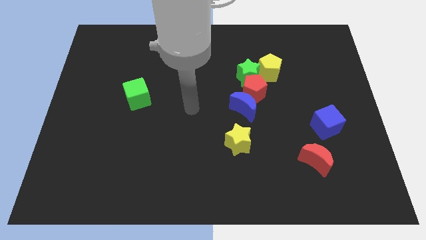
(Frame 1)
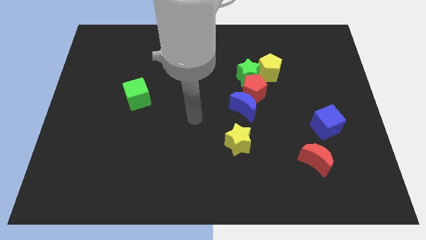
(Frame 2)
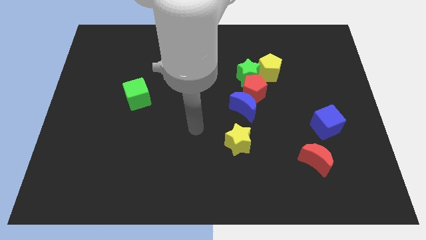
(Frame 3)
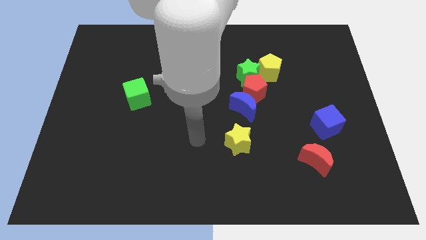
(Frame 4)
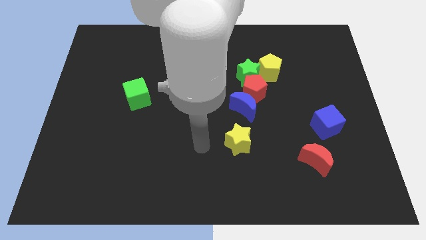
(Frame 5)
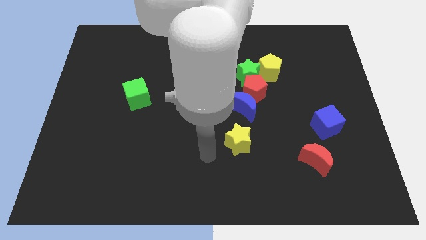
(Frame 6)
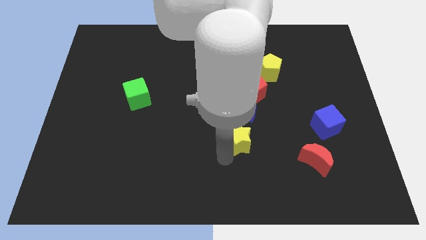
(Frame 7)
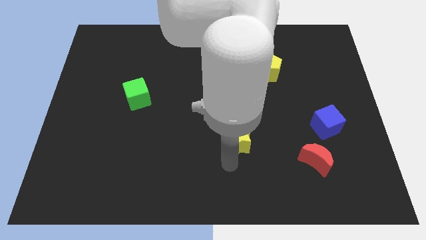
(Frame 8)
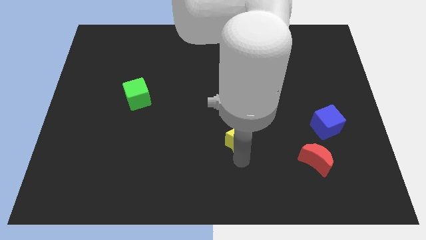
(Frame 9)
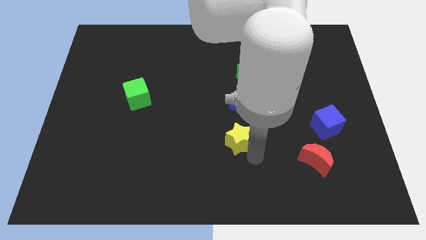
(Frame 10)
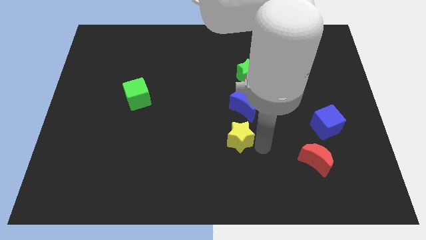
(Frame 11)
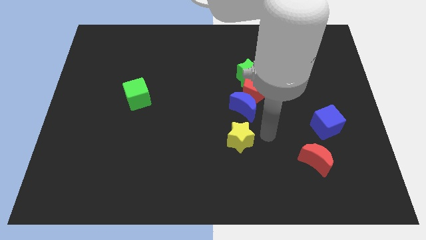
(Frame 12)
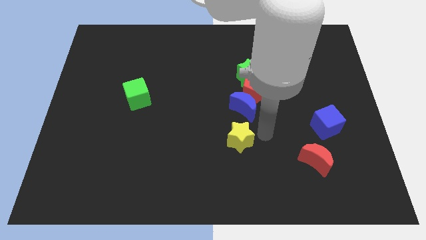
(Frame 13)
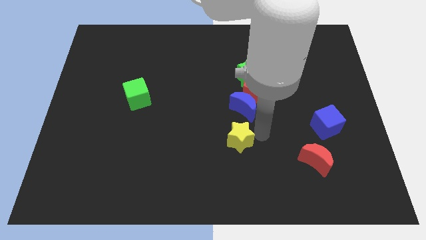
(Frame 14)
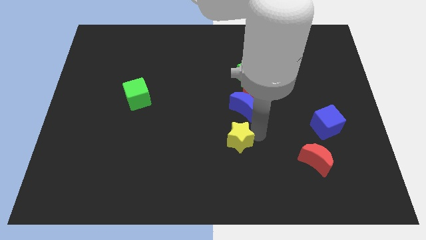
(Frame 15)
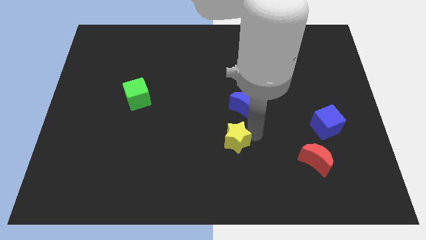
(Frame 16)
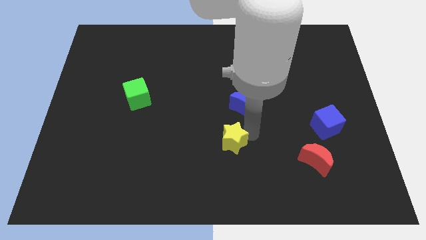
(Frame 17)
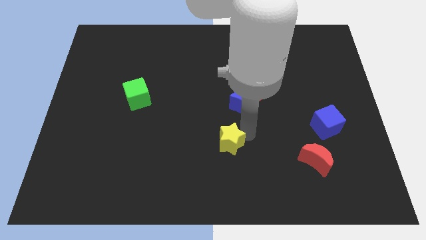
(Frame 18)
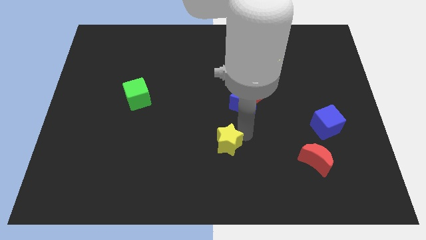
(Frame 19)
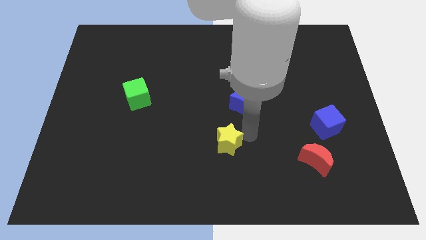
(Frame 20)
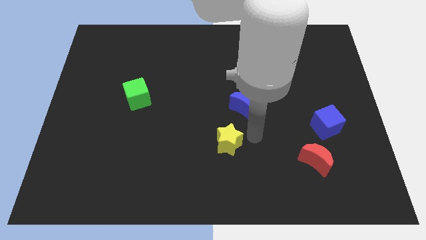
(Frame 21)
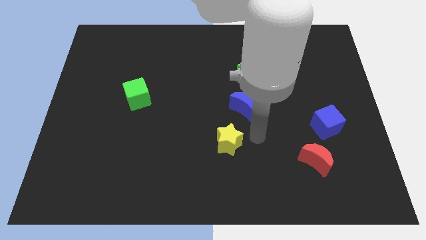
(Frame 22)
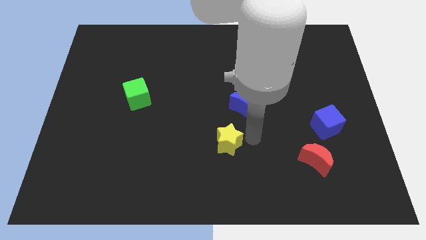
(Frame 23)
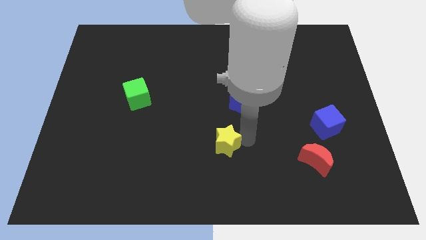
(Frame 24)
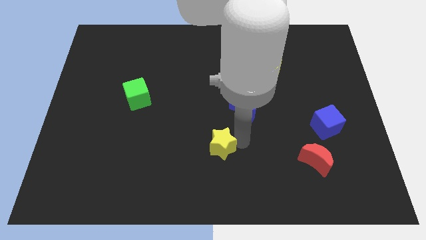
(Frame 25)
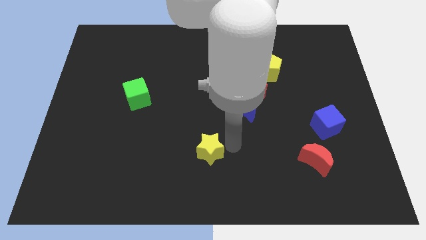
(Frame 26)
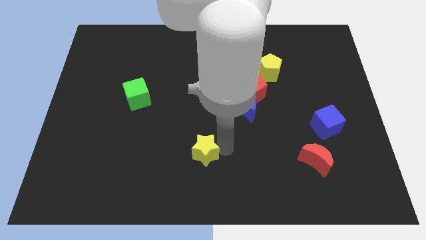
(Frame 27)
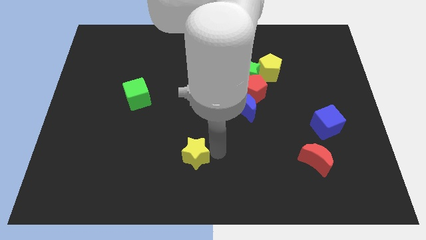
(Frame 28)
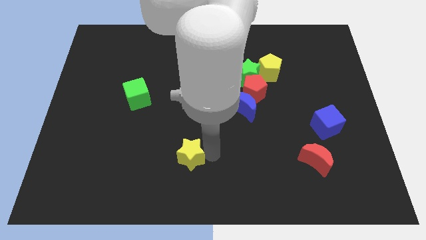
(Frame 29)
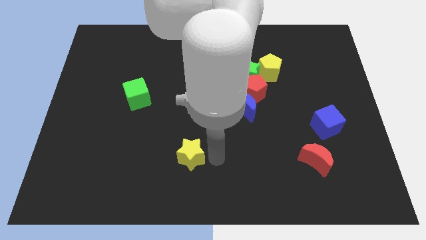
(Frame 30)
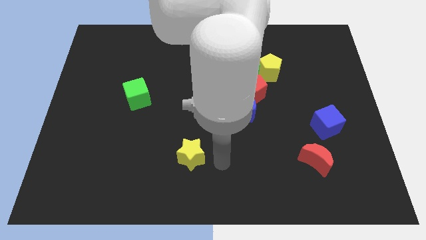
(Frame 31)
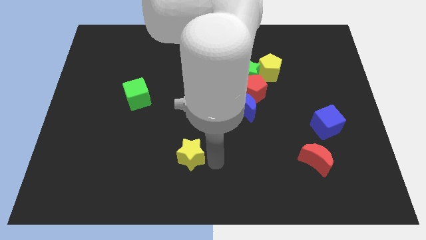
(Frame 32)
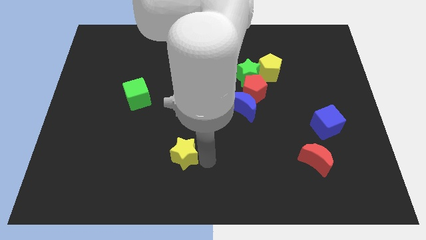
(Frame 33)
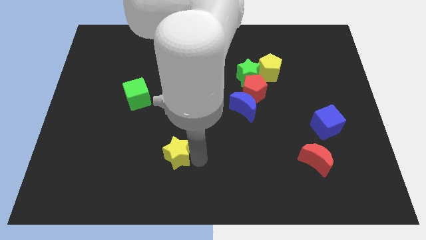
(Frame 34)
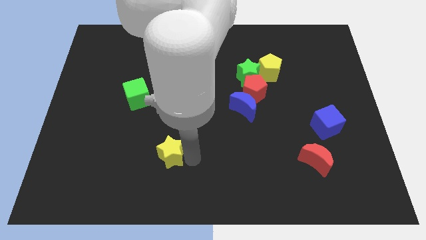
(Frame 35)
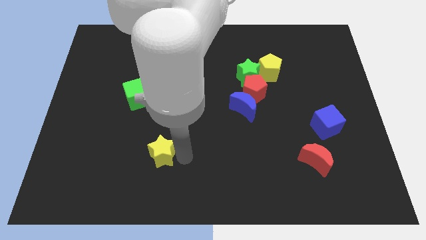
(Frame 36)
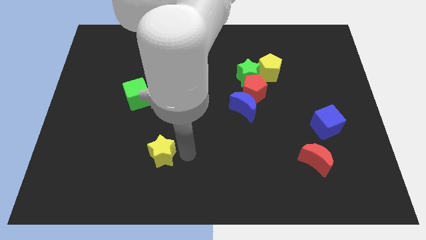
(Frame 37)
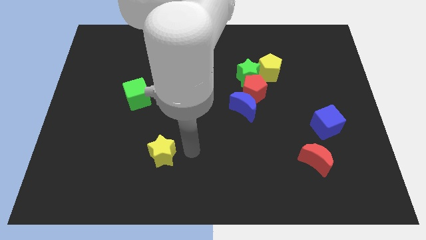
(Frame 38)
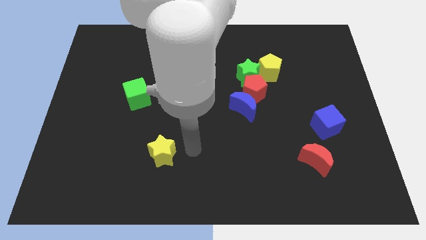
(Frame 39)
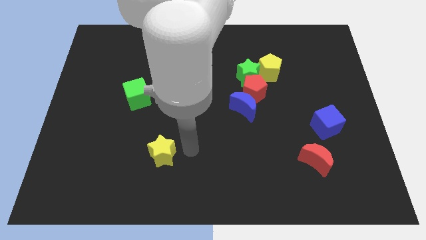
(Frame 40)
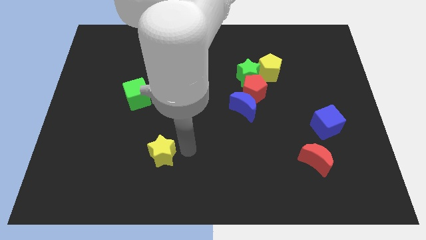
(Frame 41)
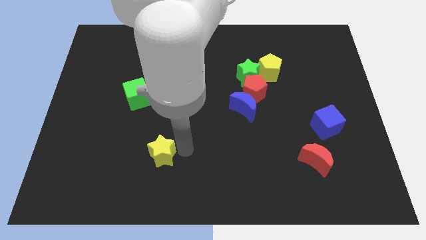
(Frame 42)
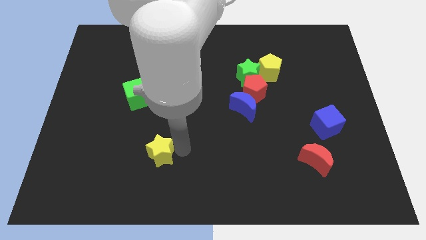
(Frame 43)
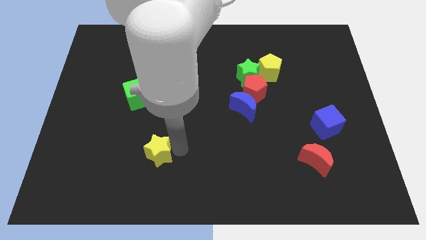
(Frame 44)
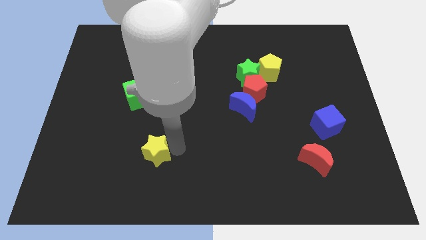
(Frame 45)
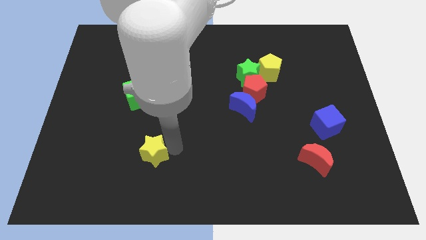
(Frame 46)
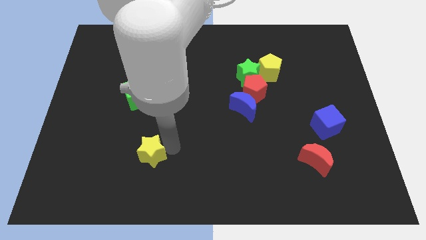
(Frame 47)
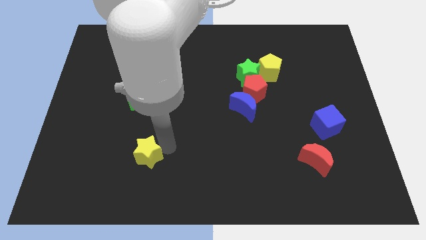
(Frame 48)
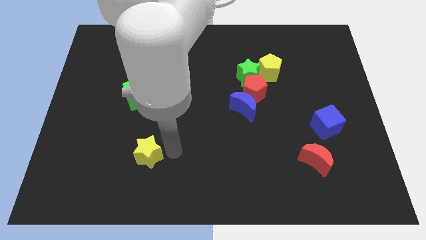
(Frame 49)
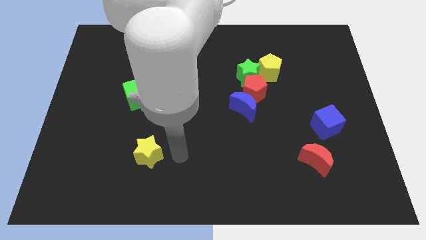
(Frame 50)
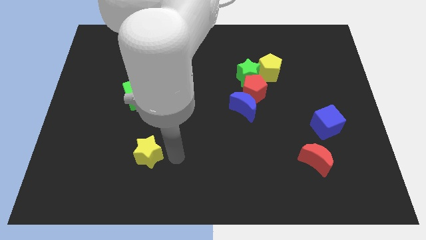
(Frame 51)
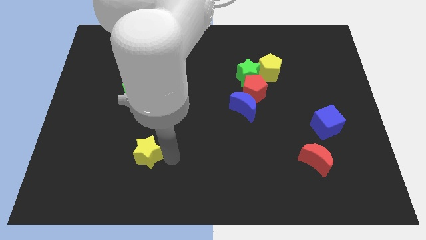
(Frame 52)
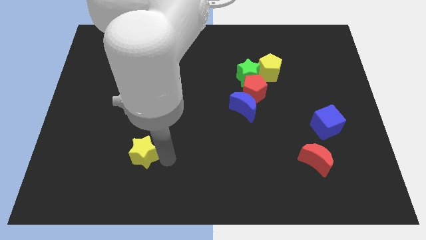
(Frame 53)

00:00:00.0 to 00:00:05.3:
push the yellow star left

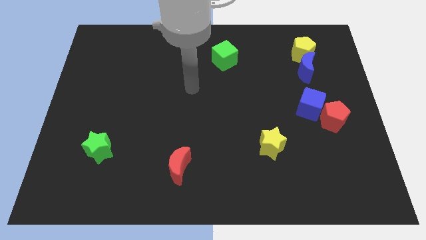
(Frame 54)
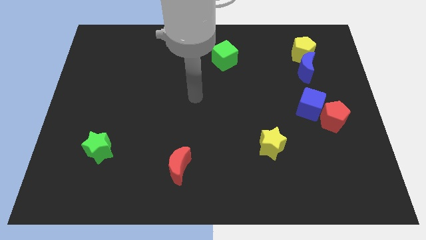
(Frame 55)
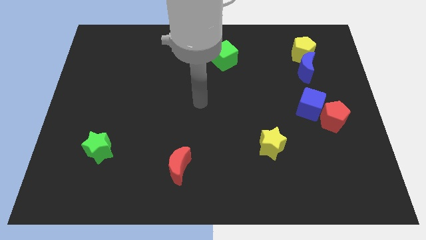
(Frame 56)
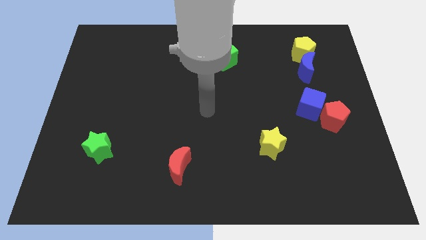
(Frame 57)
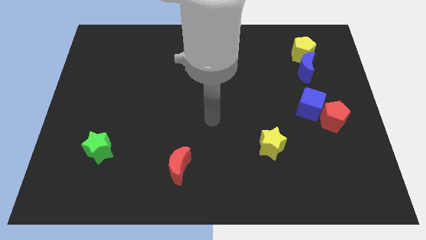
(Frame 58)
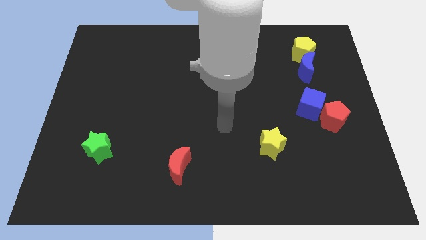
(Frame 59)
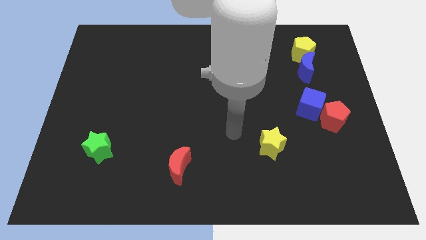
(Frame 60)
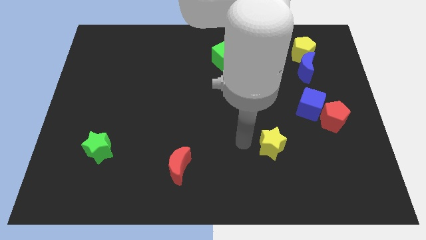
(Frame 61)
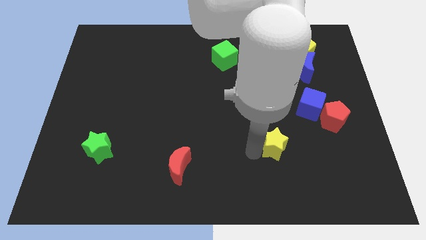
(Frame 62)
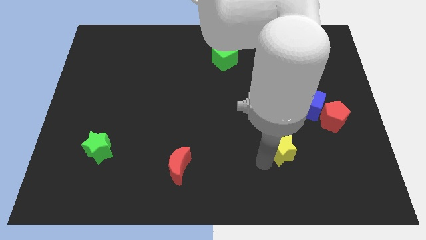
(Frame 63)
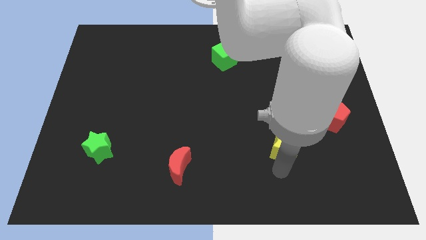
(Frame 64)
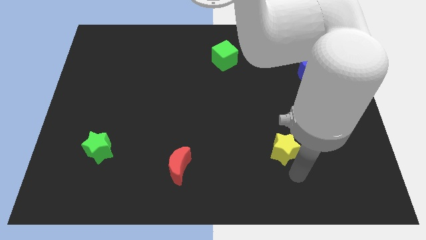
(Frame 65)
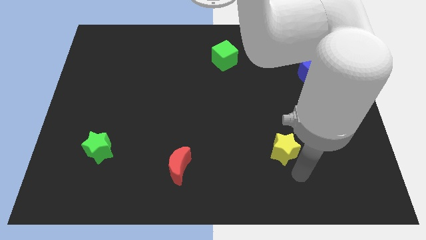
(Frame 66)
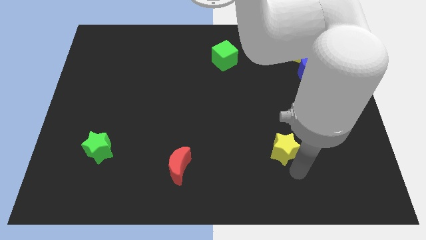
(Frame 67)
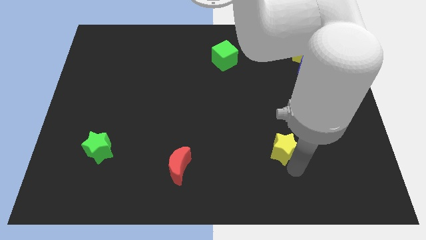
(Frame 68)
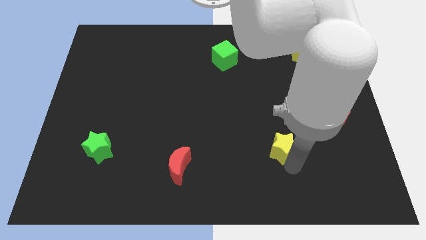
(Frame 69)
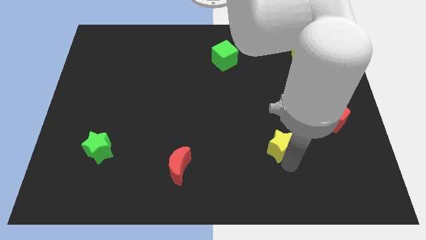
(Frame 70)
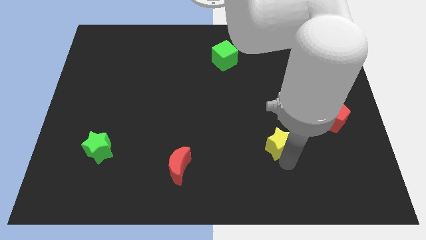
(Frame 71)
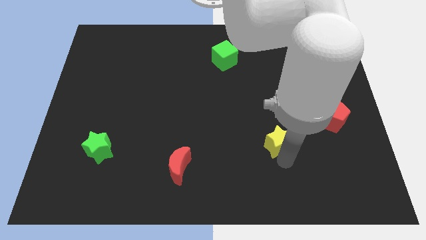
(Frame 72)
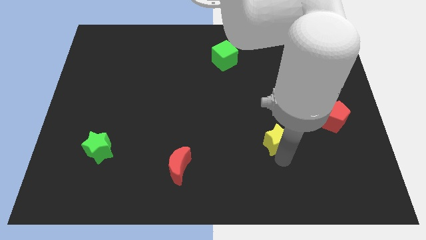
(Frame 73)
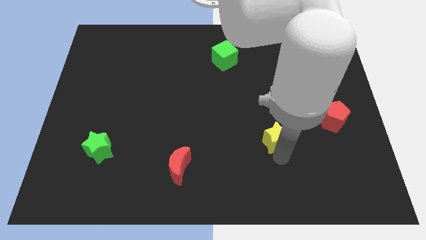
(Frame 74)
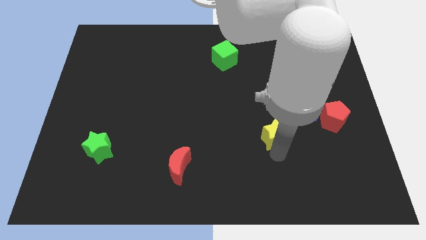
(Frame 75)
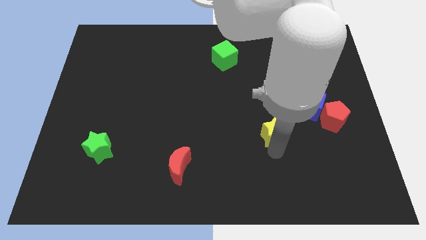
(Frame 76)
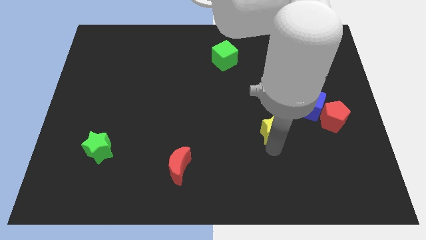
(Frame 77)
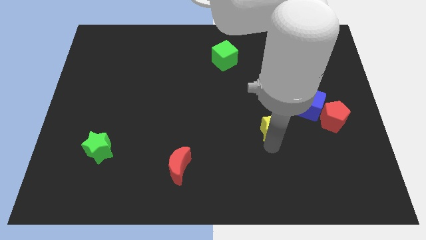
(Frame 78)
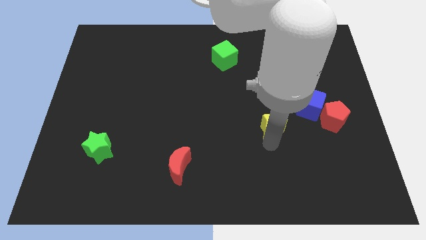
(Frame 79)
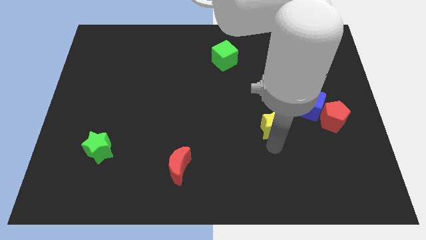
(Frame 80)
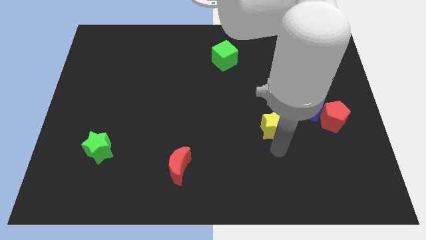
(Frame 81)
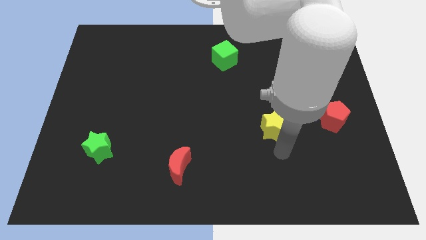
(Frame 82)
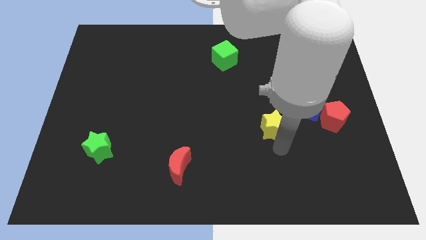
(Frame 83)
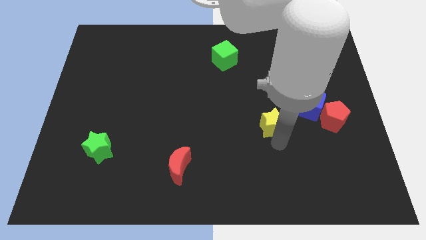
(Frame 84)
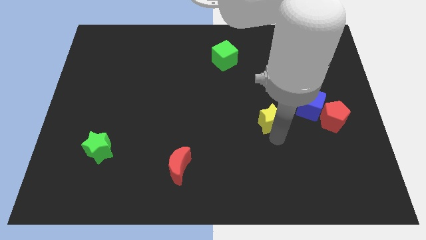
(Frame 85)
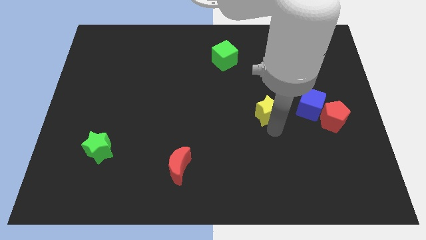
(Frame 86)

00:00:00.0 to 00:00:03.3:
slightly move the yellow star up
